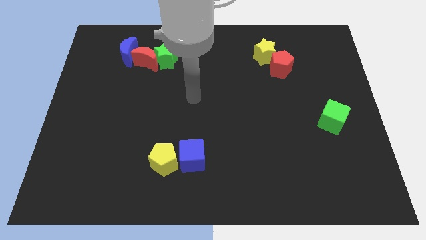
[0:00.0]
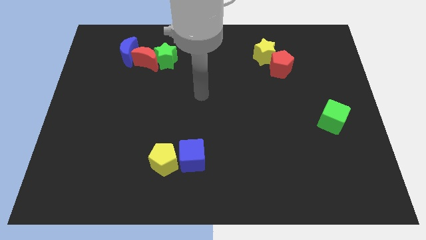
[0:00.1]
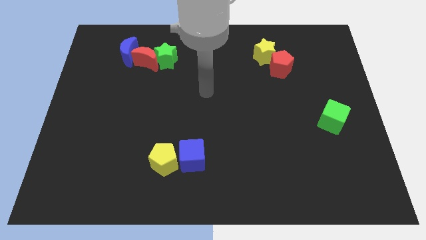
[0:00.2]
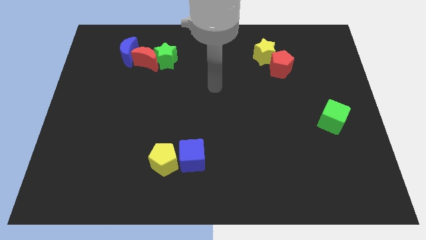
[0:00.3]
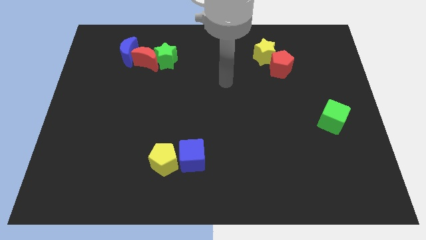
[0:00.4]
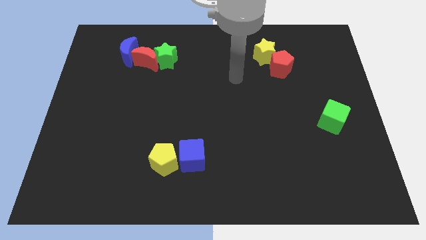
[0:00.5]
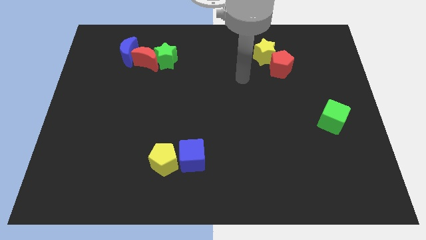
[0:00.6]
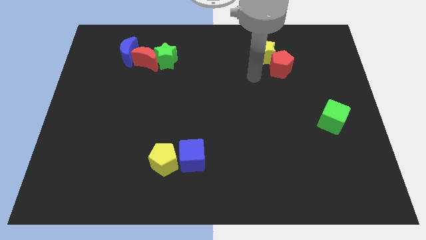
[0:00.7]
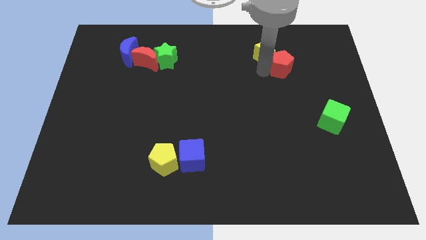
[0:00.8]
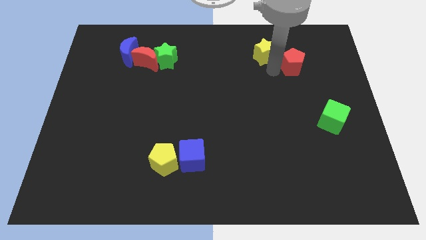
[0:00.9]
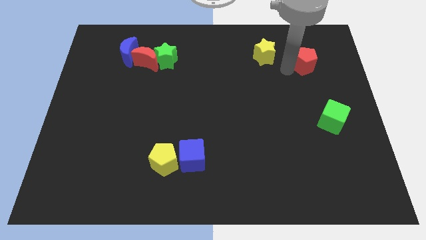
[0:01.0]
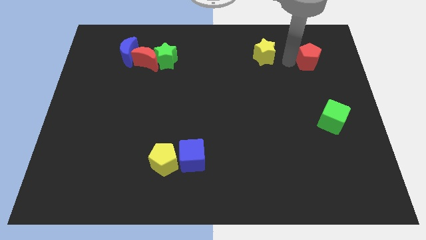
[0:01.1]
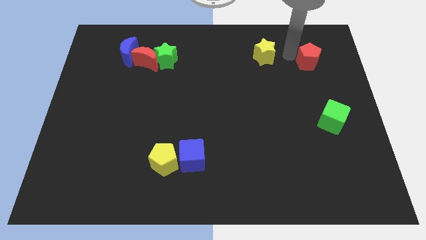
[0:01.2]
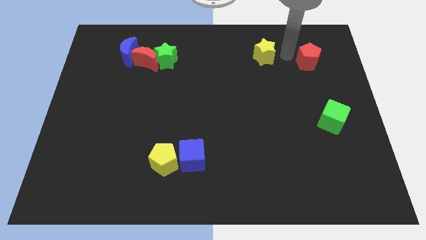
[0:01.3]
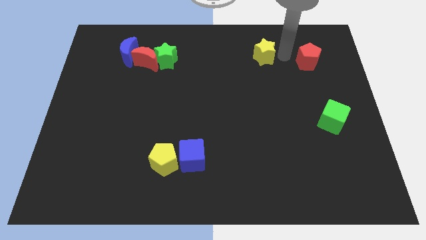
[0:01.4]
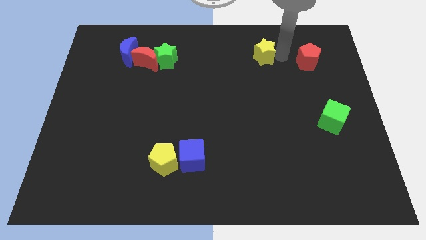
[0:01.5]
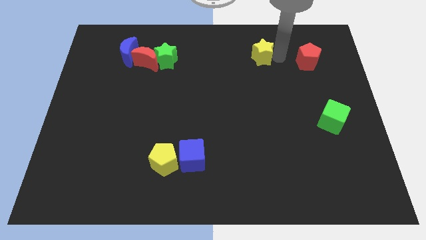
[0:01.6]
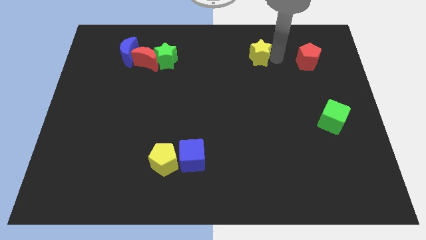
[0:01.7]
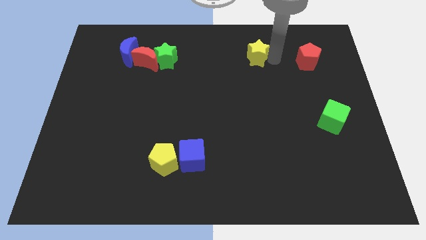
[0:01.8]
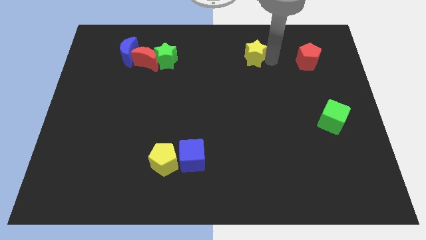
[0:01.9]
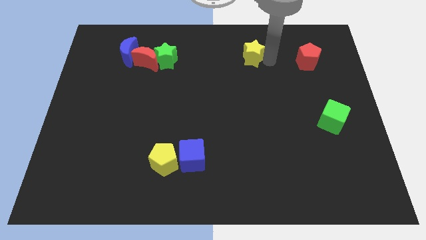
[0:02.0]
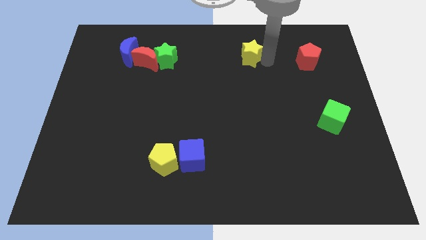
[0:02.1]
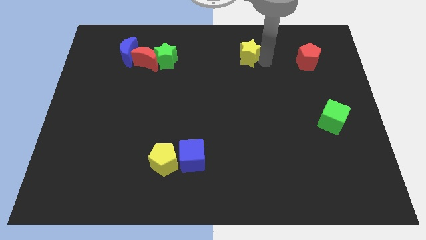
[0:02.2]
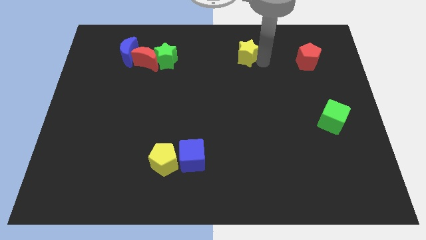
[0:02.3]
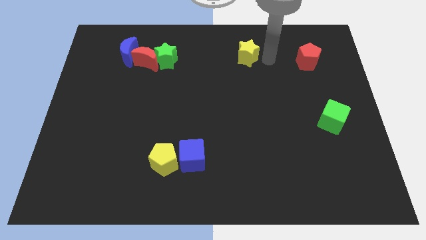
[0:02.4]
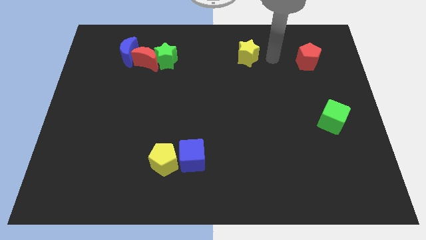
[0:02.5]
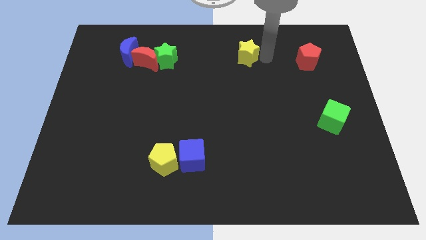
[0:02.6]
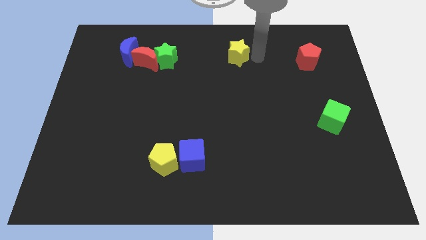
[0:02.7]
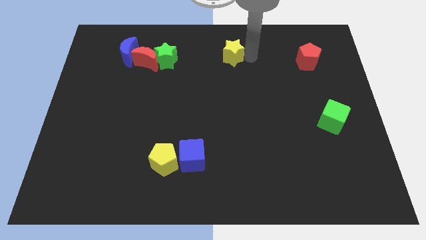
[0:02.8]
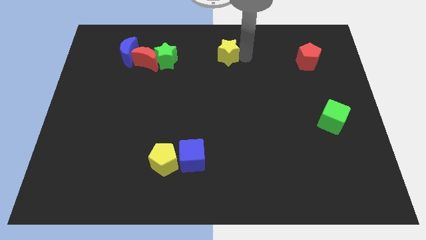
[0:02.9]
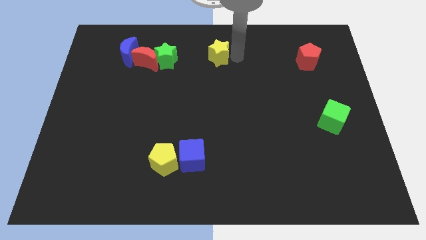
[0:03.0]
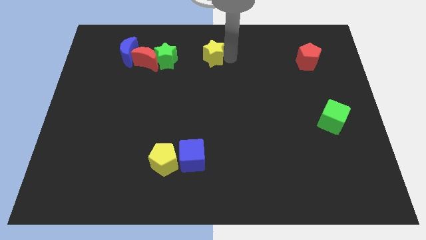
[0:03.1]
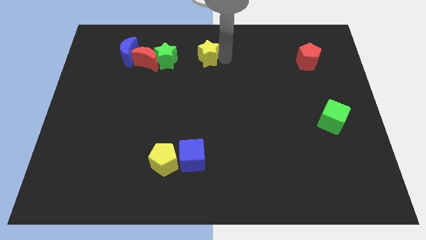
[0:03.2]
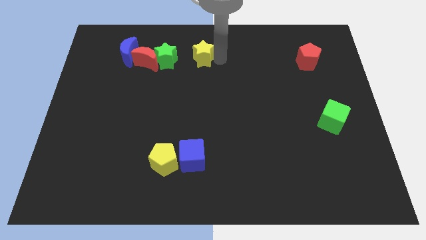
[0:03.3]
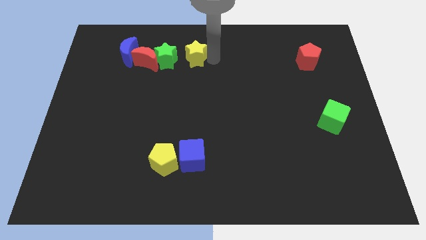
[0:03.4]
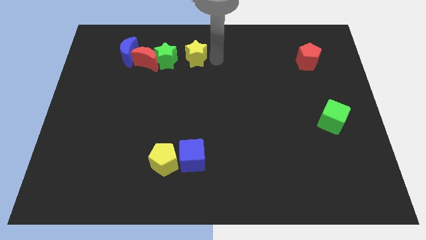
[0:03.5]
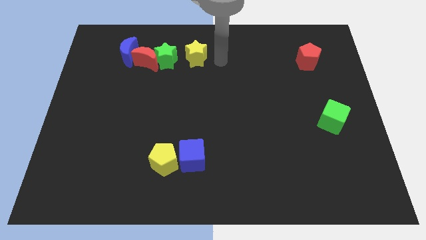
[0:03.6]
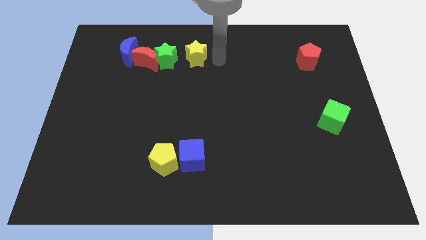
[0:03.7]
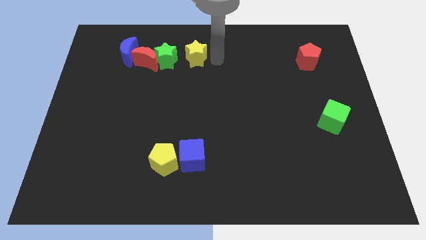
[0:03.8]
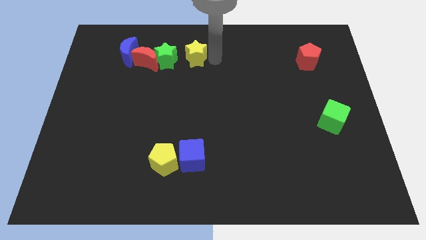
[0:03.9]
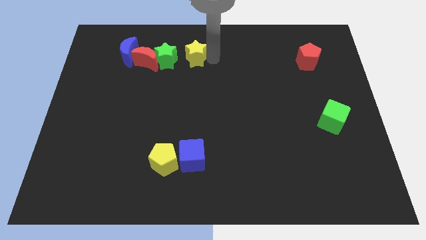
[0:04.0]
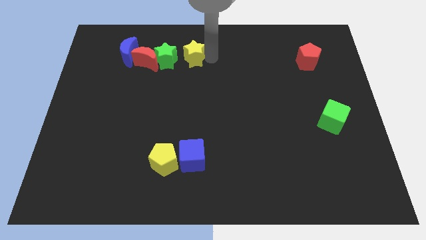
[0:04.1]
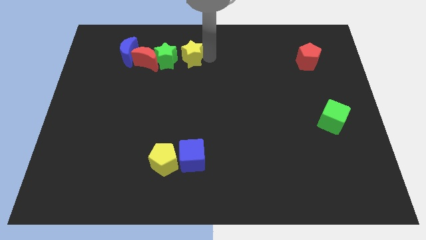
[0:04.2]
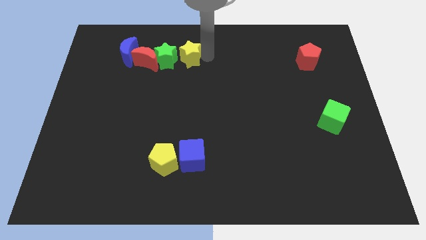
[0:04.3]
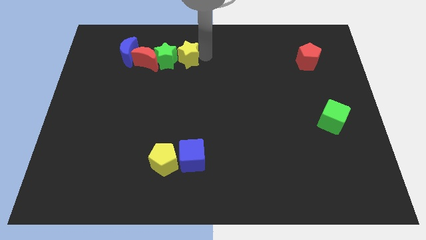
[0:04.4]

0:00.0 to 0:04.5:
move the yellow star towards the green star

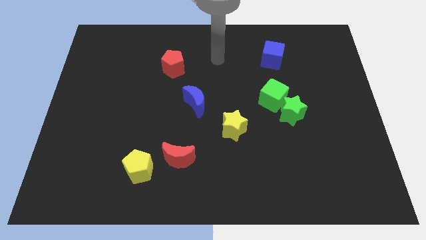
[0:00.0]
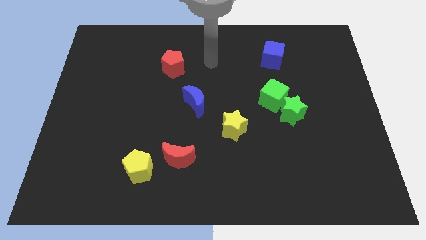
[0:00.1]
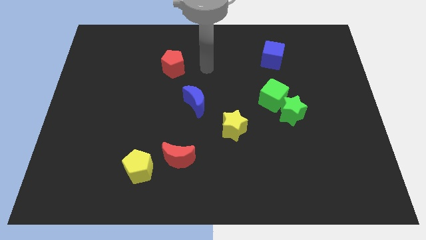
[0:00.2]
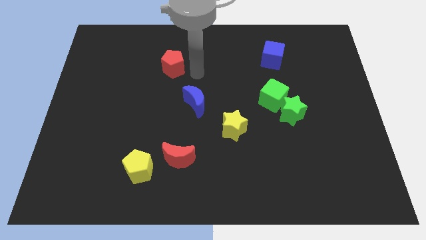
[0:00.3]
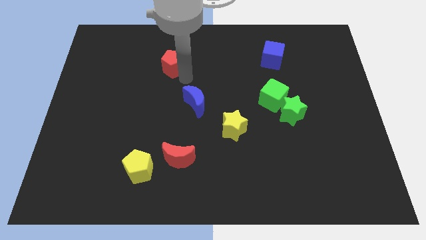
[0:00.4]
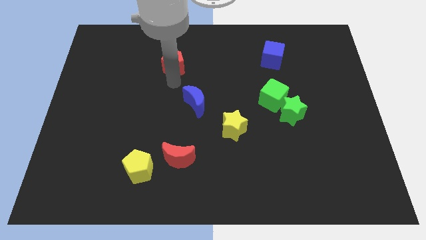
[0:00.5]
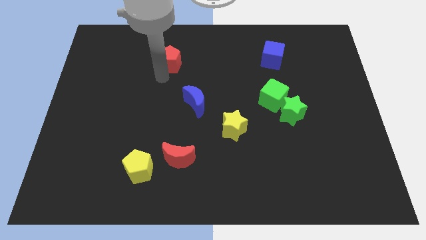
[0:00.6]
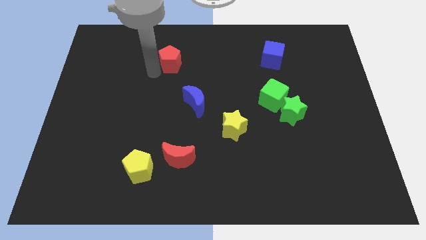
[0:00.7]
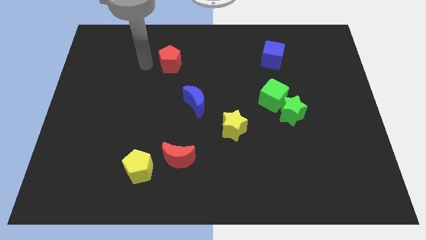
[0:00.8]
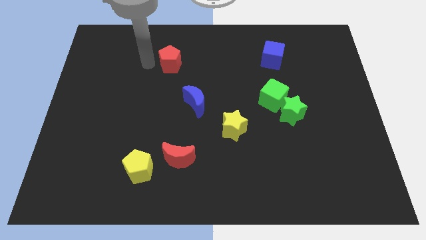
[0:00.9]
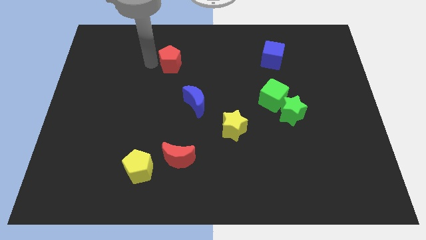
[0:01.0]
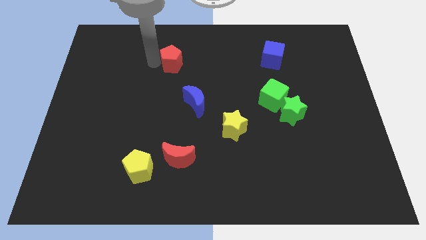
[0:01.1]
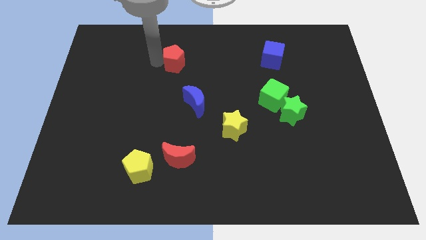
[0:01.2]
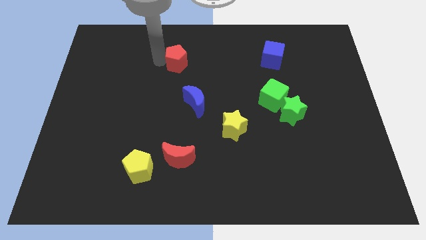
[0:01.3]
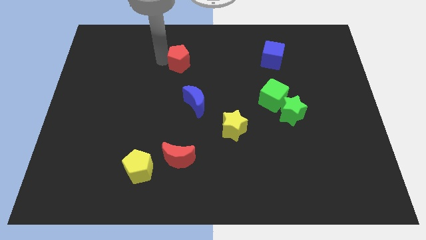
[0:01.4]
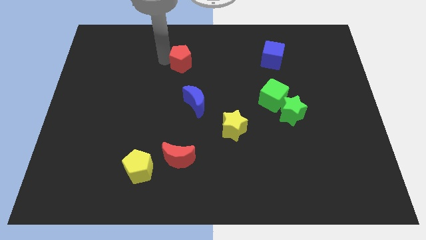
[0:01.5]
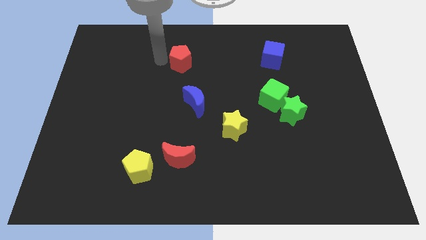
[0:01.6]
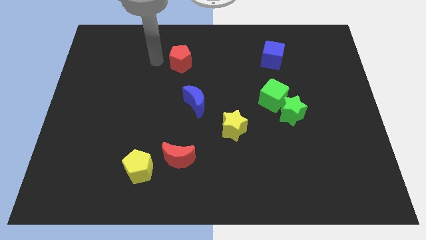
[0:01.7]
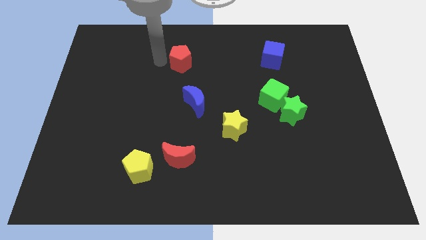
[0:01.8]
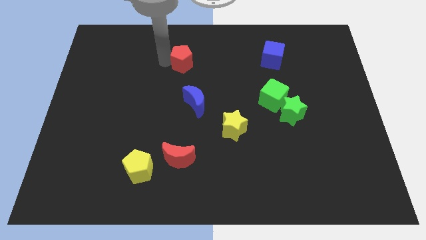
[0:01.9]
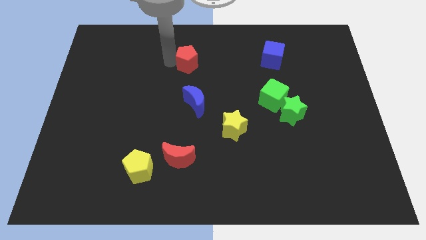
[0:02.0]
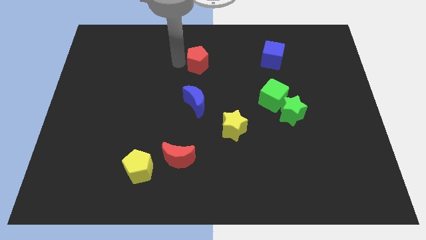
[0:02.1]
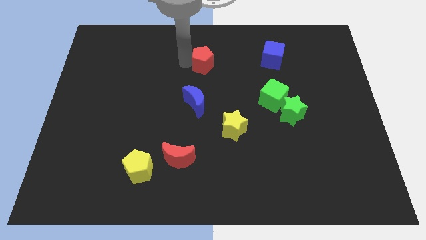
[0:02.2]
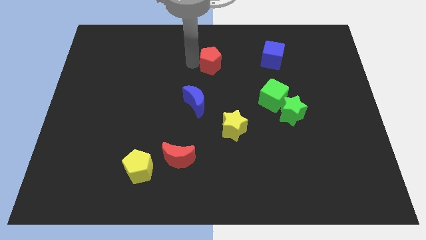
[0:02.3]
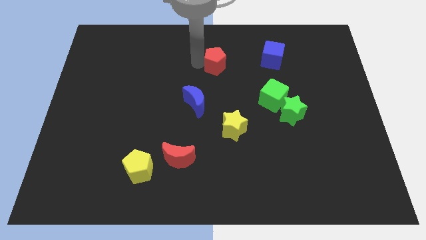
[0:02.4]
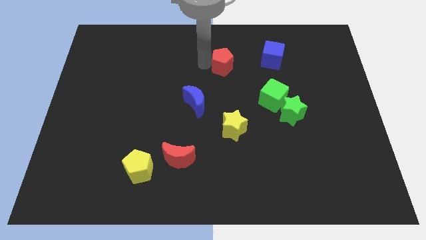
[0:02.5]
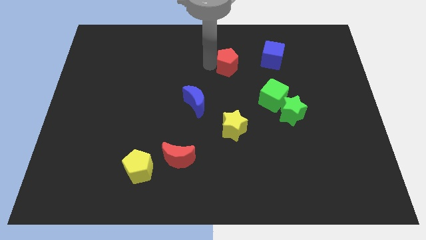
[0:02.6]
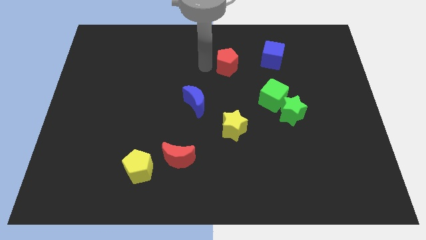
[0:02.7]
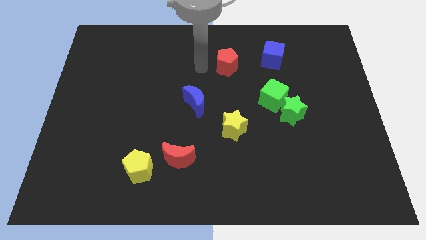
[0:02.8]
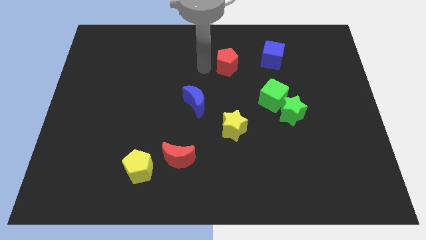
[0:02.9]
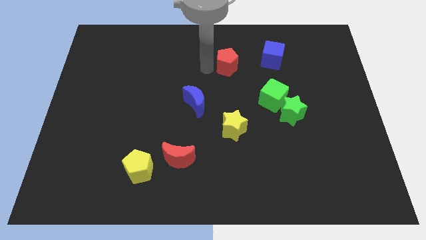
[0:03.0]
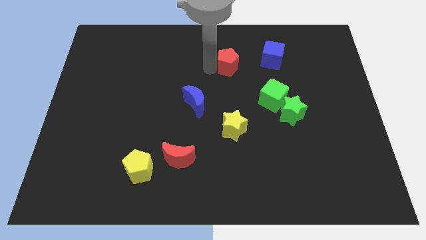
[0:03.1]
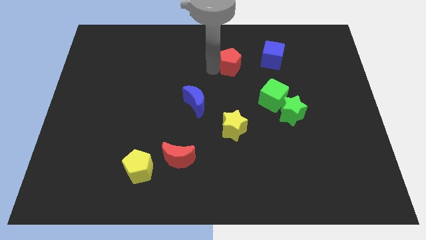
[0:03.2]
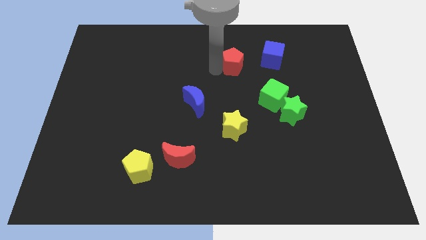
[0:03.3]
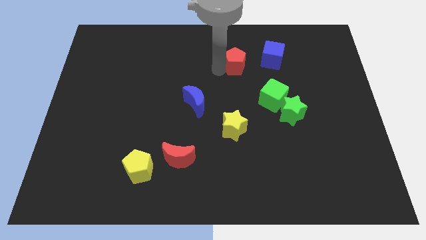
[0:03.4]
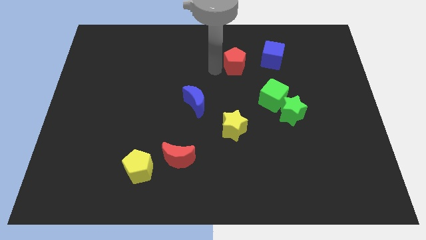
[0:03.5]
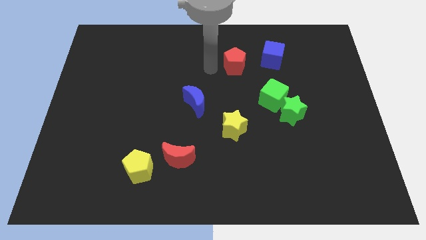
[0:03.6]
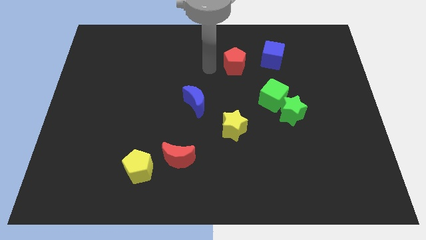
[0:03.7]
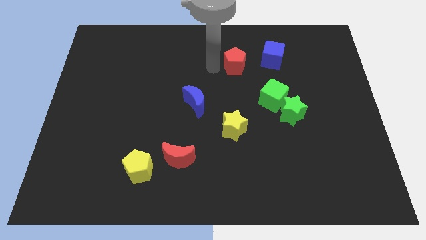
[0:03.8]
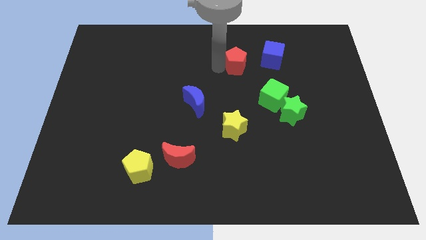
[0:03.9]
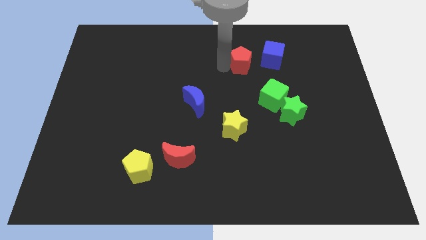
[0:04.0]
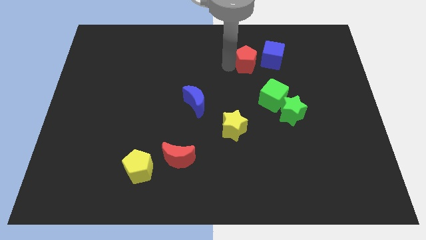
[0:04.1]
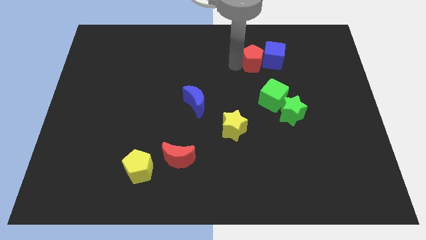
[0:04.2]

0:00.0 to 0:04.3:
move the red pentagon to the blue cube
